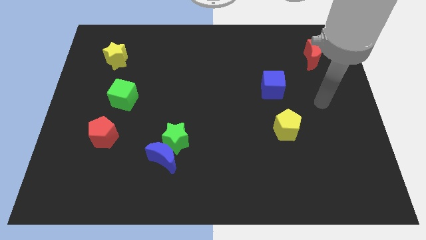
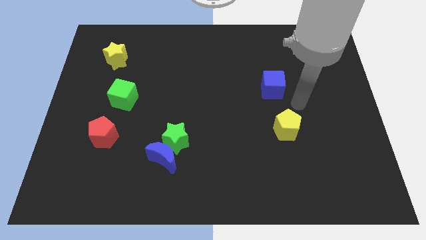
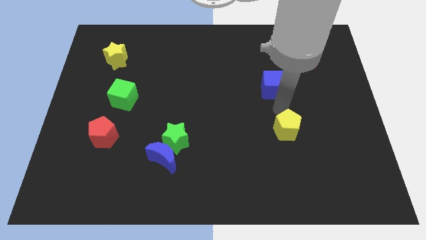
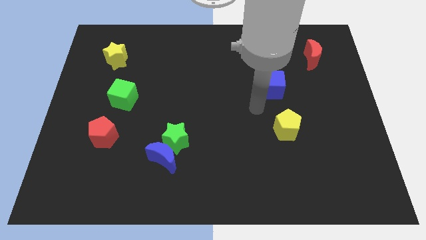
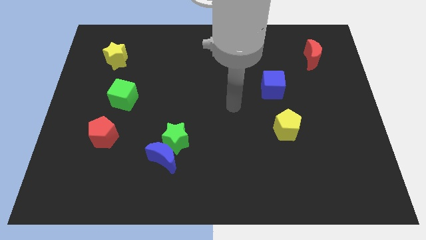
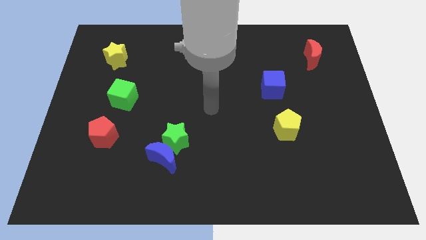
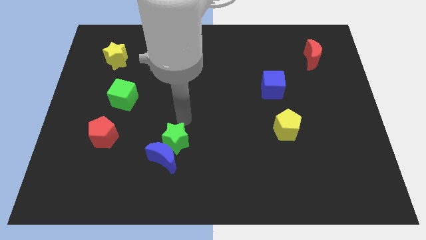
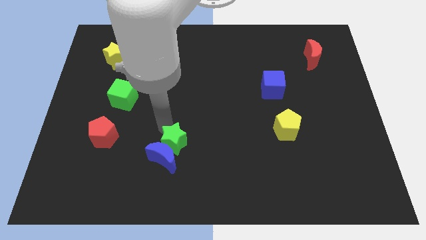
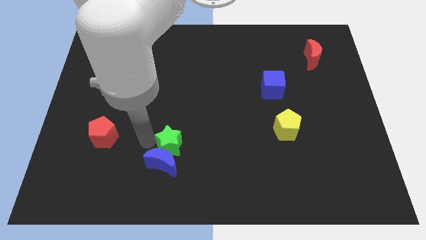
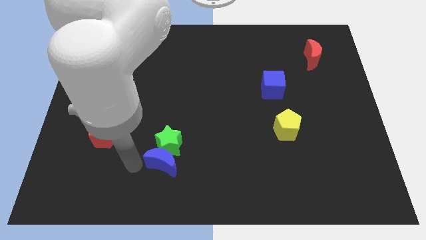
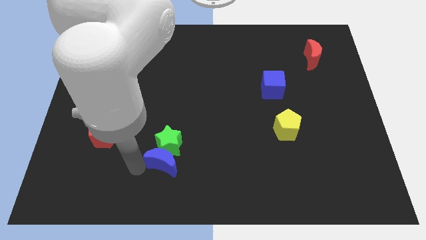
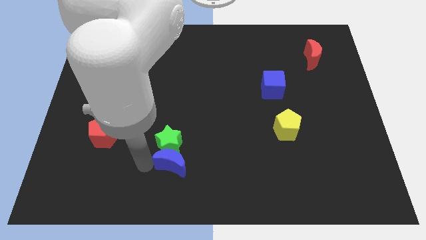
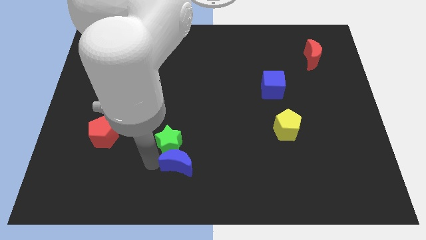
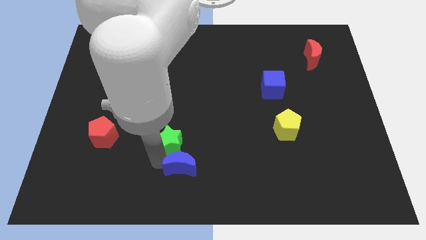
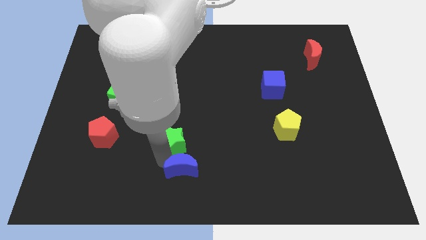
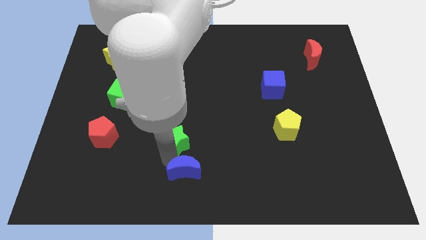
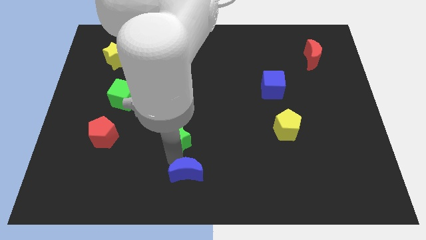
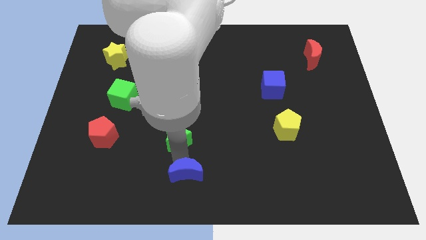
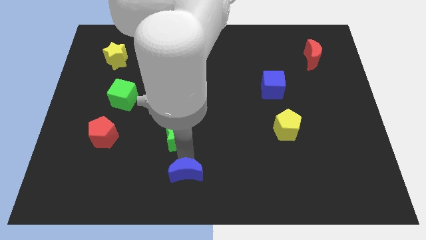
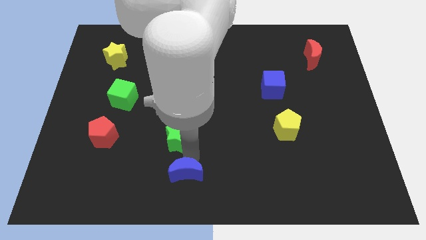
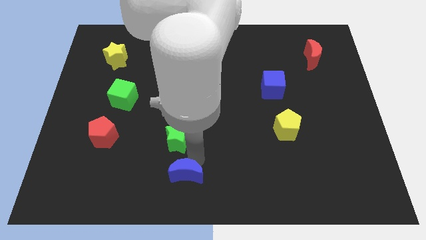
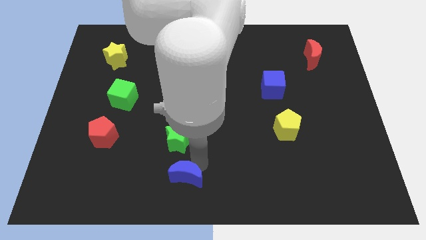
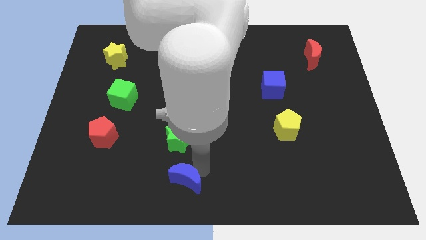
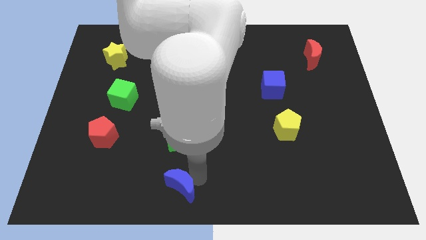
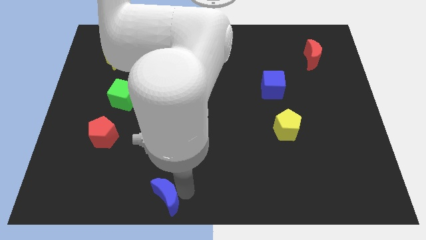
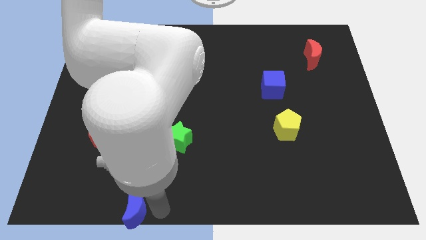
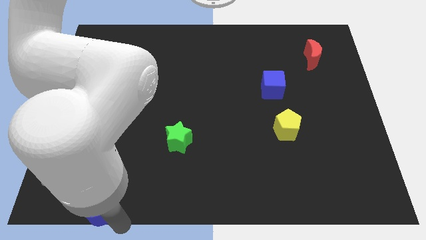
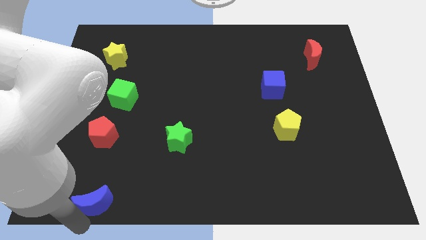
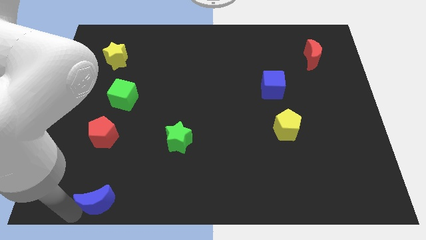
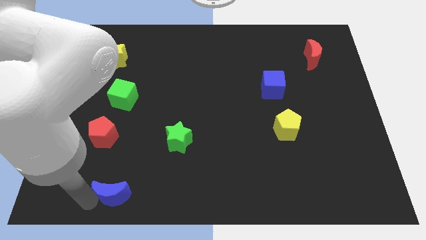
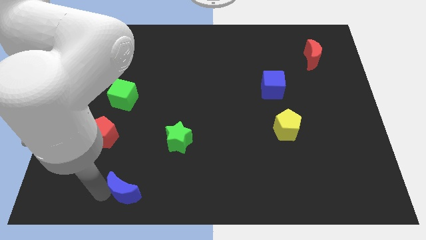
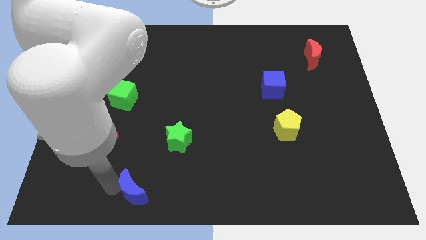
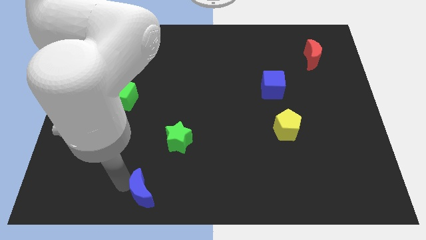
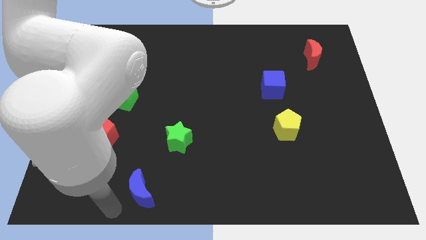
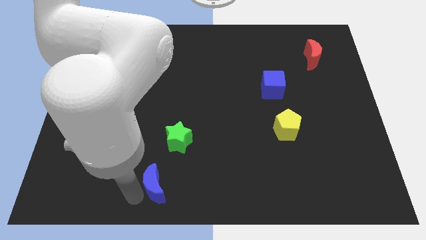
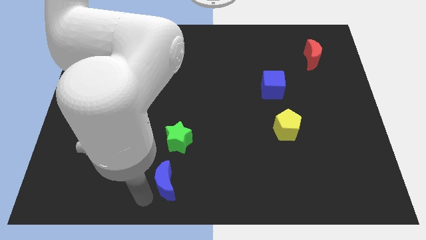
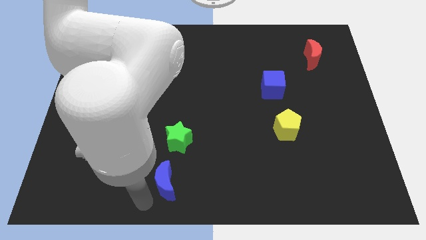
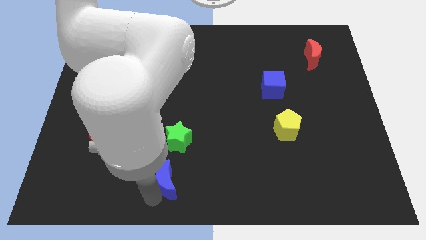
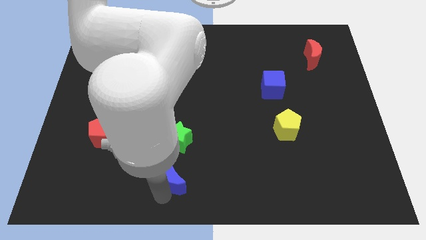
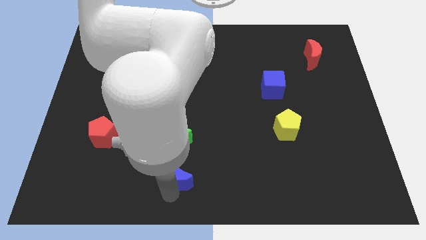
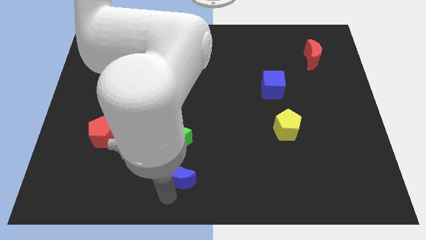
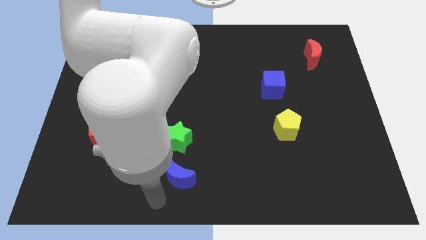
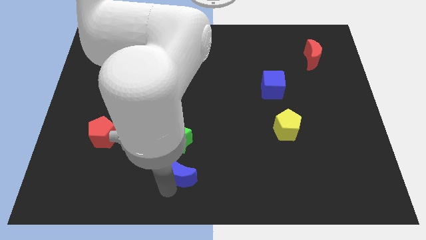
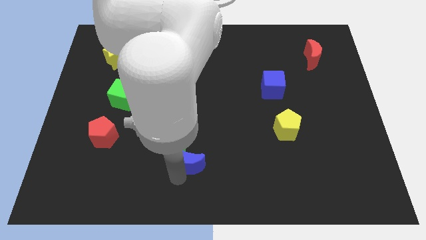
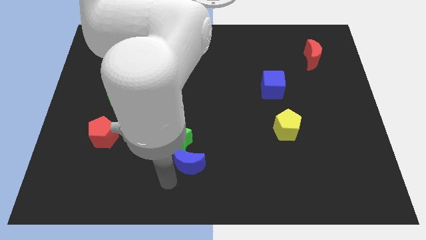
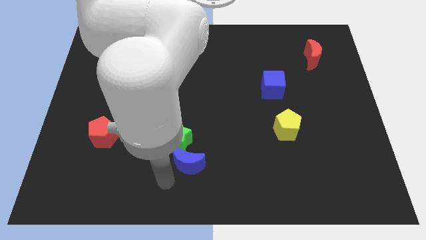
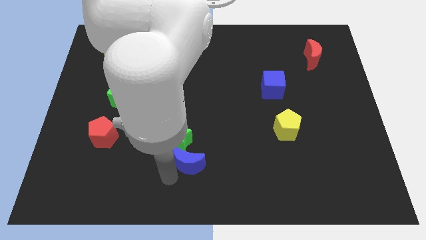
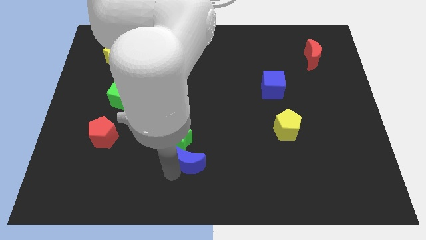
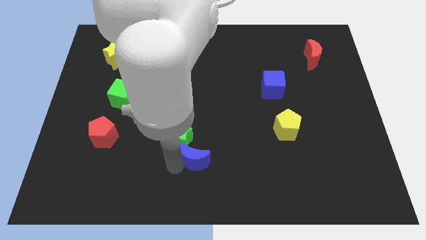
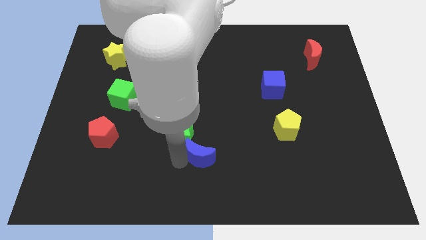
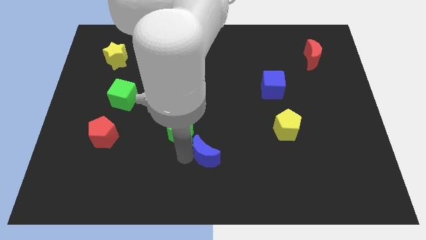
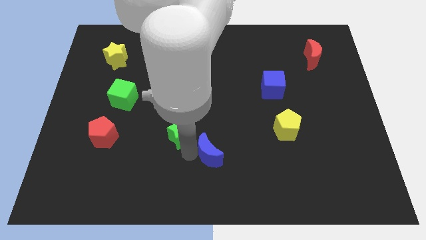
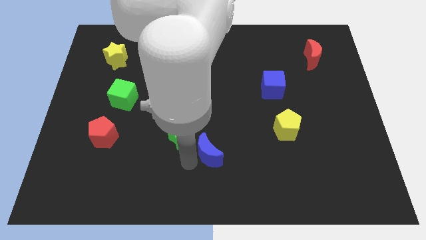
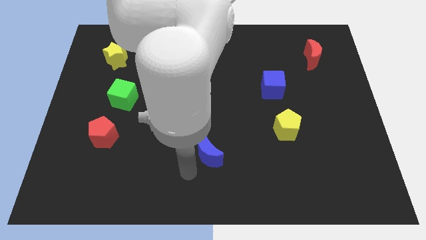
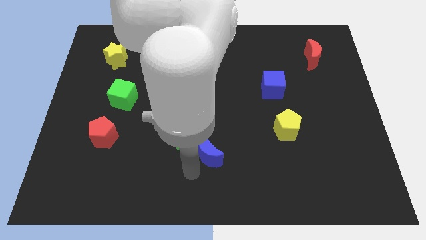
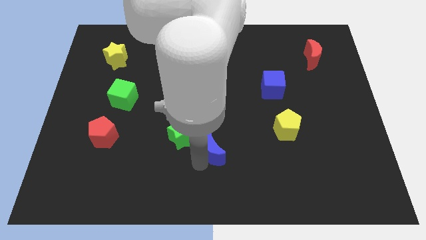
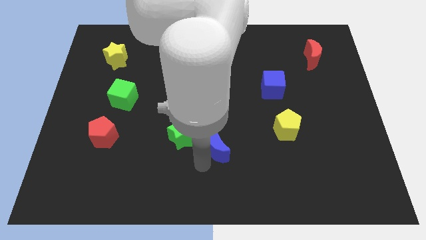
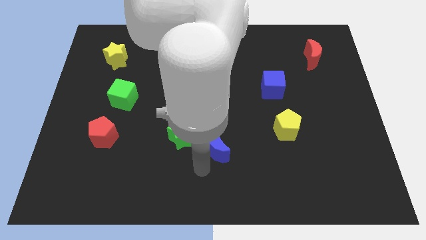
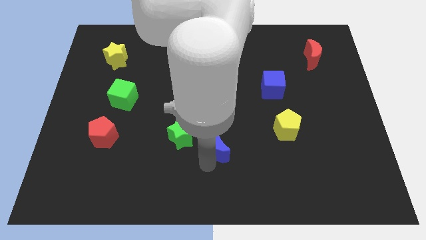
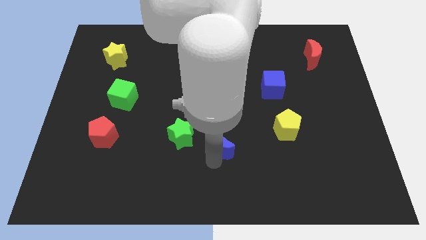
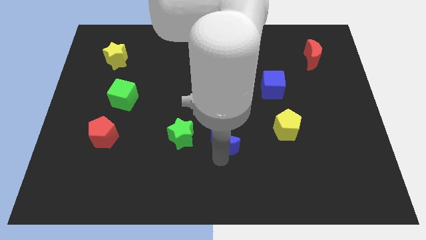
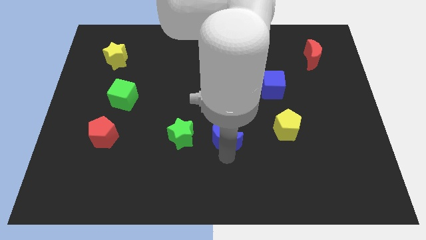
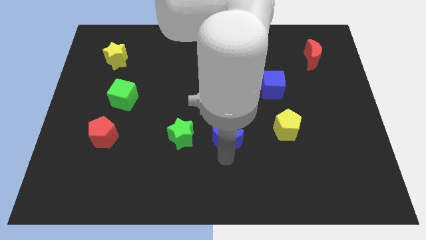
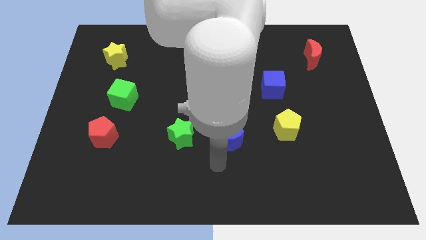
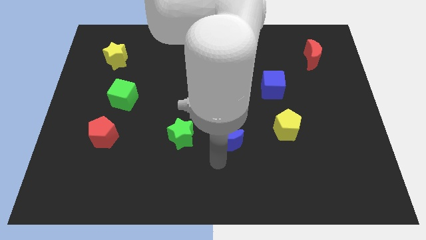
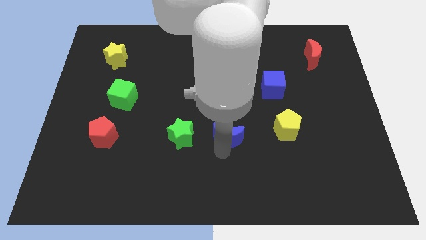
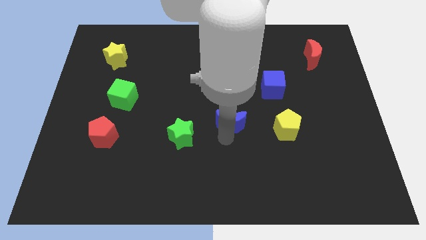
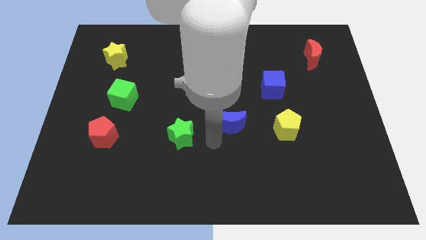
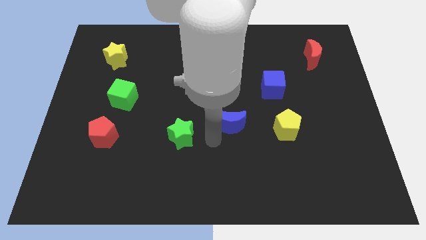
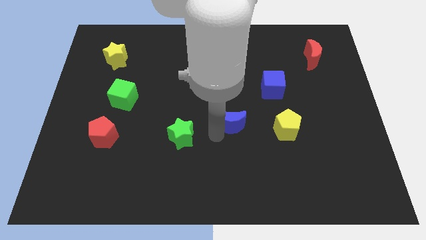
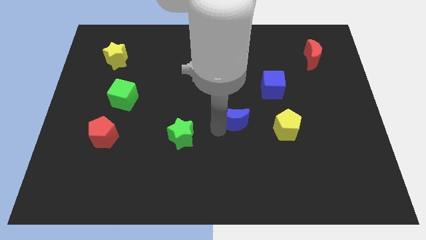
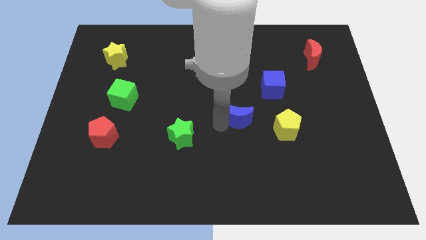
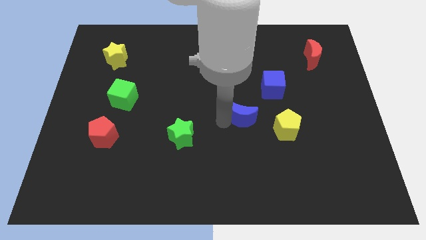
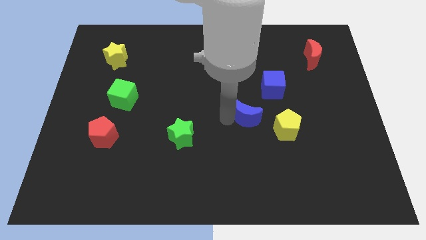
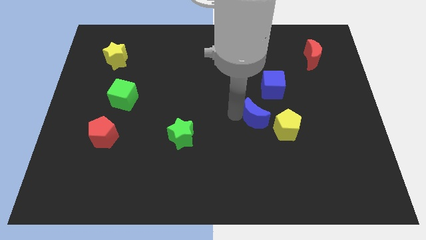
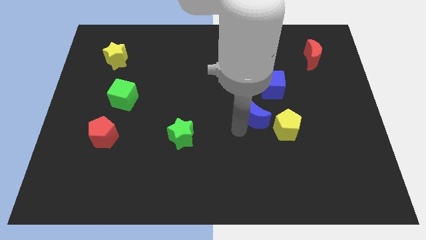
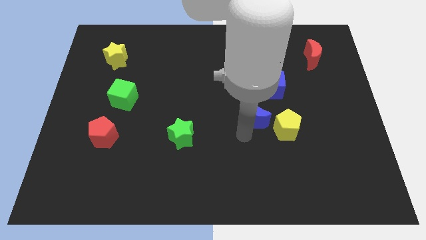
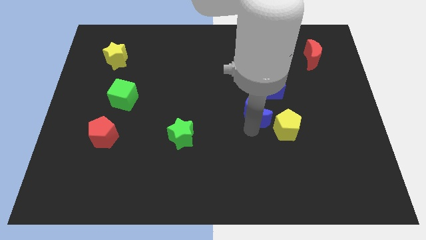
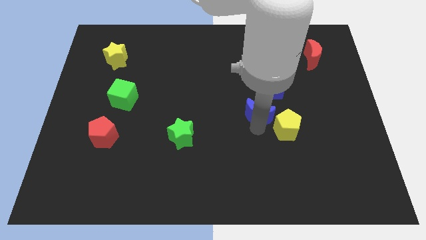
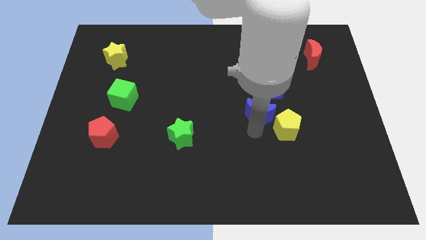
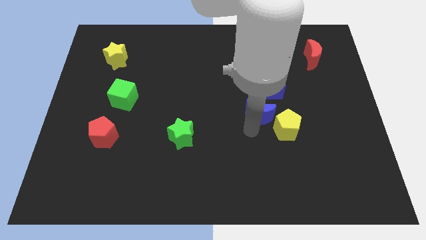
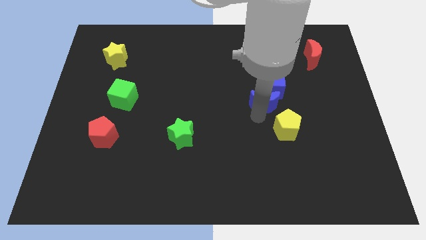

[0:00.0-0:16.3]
push the blue moon close to the blue cube
